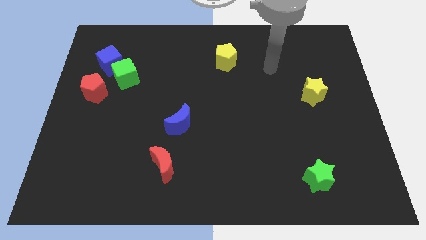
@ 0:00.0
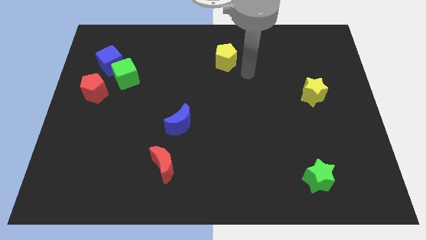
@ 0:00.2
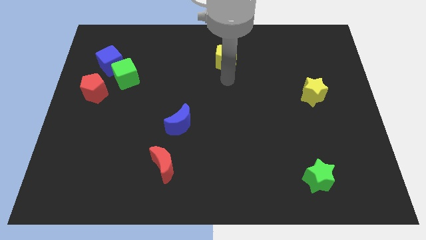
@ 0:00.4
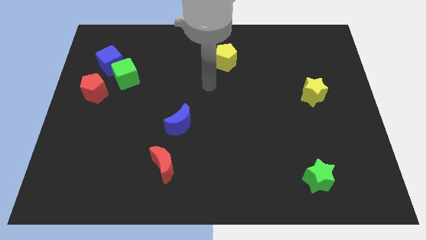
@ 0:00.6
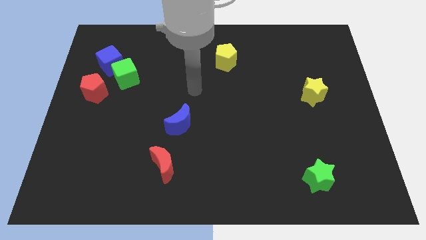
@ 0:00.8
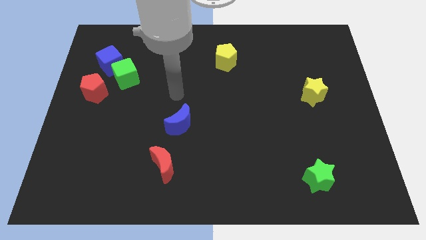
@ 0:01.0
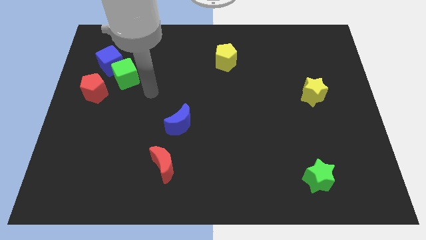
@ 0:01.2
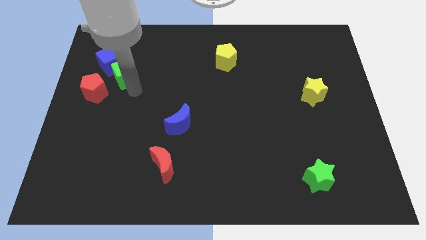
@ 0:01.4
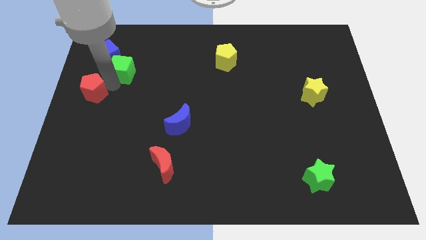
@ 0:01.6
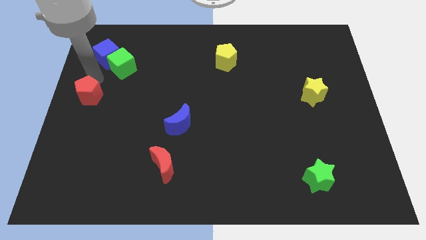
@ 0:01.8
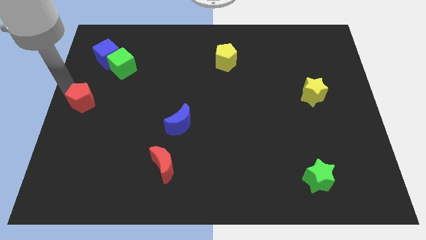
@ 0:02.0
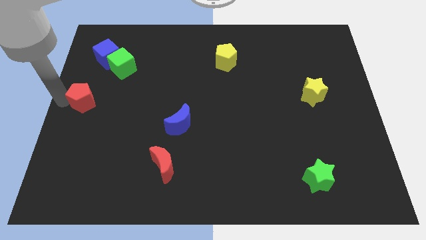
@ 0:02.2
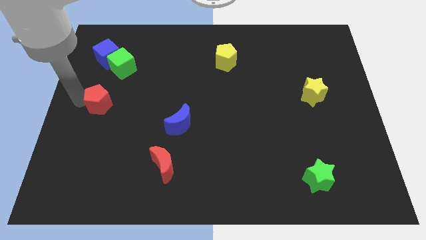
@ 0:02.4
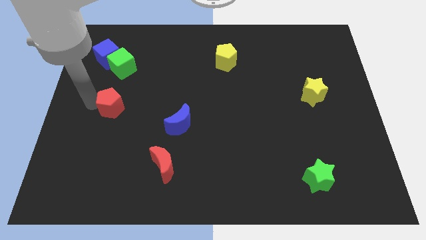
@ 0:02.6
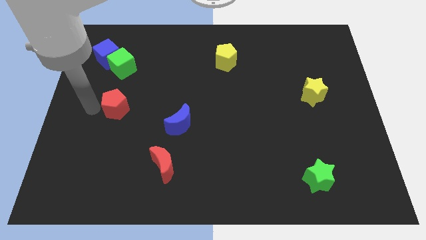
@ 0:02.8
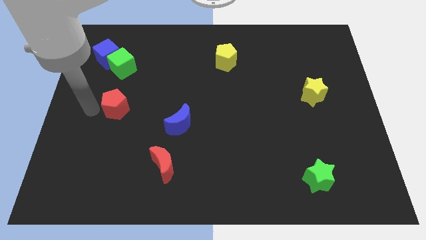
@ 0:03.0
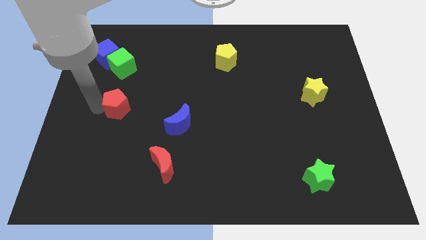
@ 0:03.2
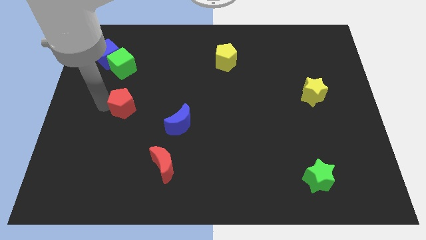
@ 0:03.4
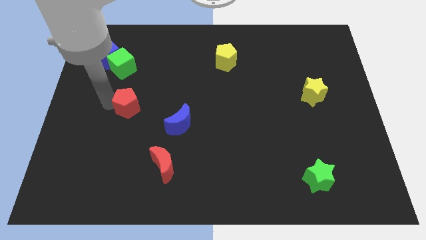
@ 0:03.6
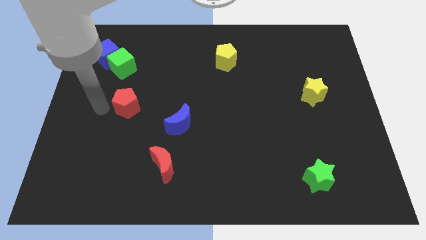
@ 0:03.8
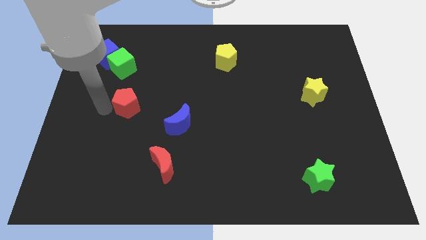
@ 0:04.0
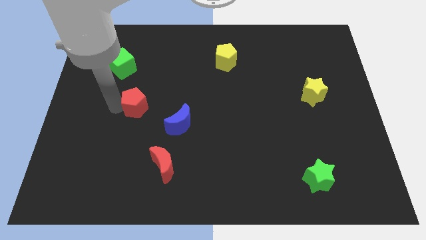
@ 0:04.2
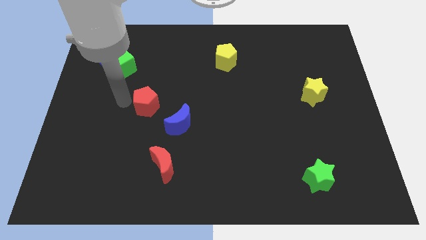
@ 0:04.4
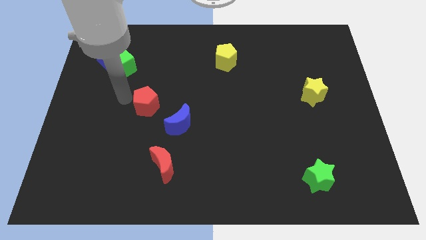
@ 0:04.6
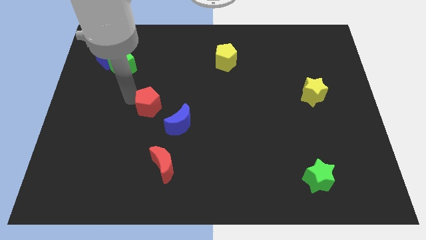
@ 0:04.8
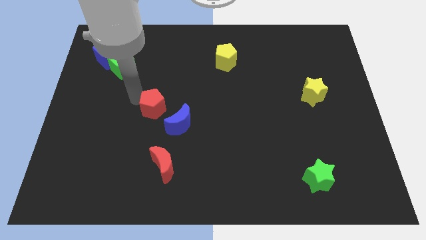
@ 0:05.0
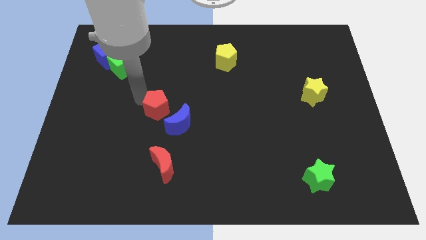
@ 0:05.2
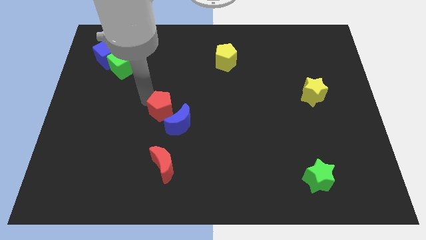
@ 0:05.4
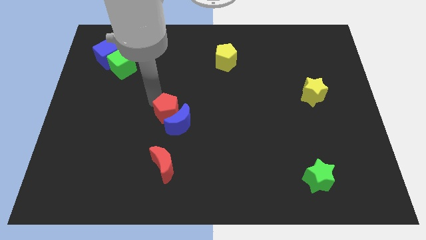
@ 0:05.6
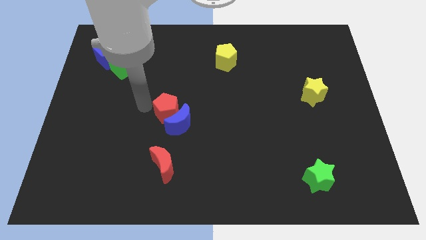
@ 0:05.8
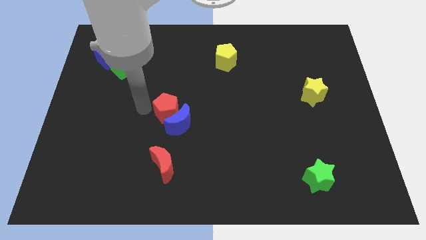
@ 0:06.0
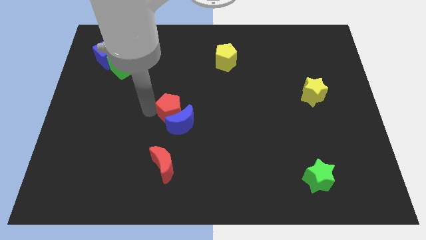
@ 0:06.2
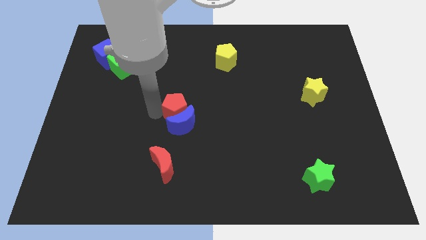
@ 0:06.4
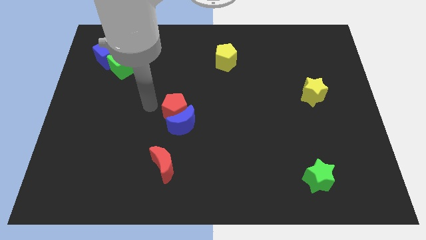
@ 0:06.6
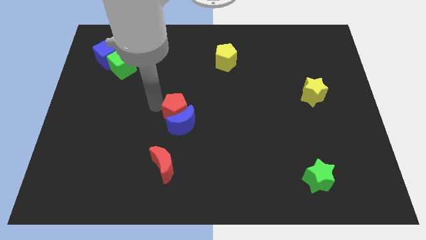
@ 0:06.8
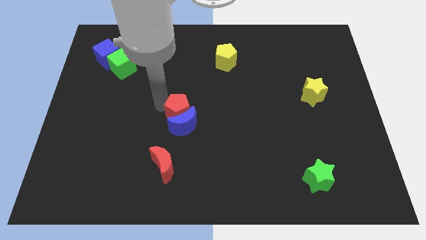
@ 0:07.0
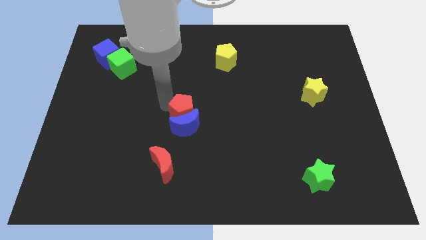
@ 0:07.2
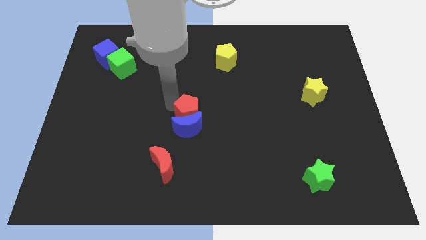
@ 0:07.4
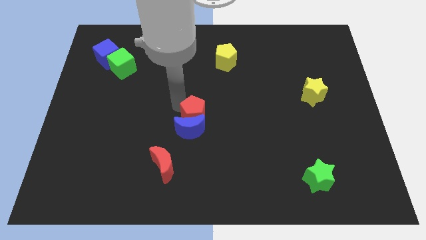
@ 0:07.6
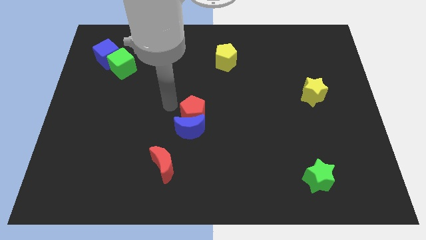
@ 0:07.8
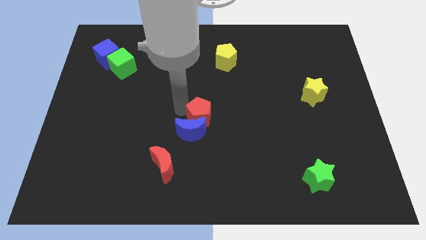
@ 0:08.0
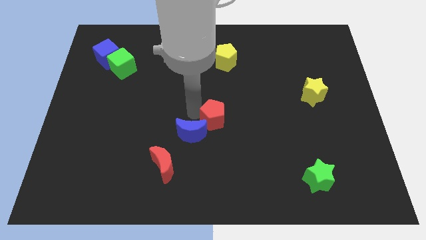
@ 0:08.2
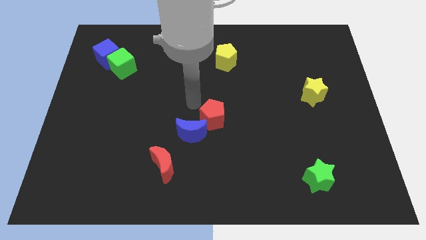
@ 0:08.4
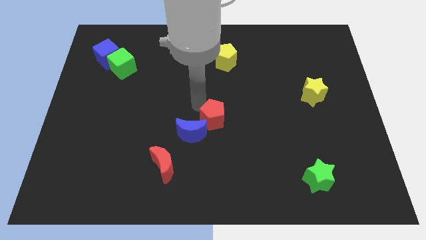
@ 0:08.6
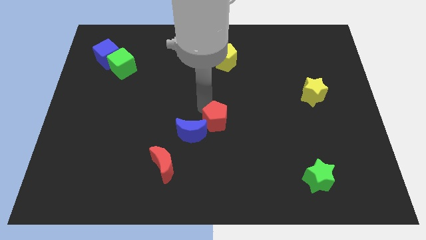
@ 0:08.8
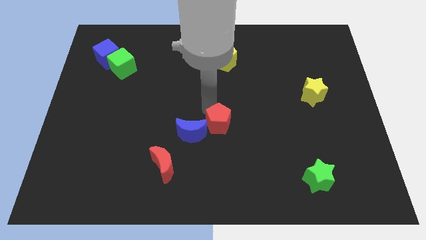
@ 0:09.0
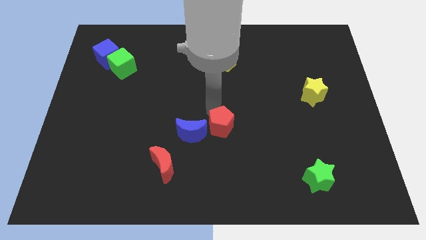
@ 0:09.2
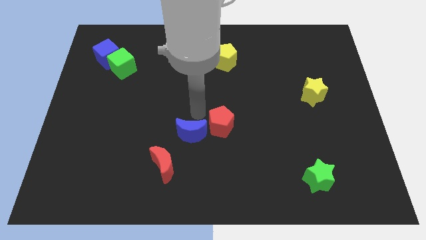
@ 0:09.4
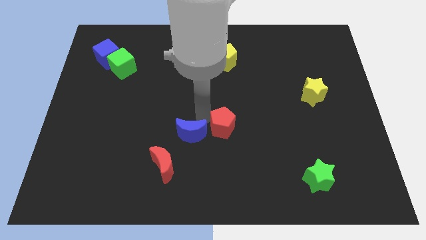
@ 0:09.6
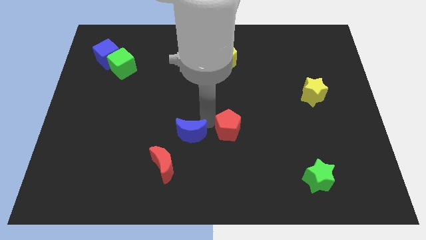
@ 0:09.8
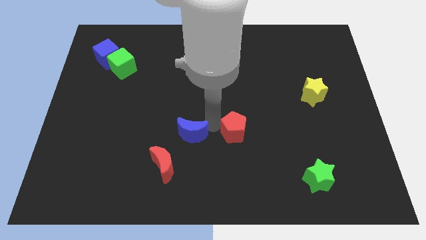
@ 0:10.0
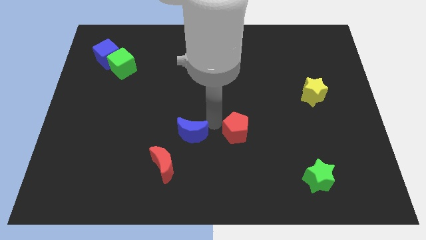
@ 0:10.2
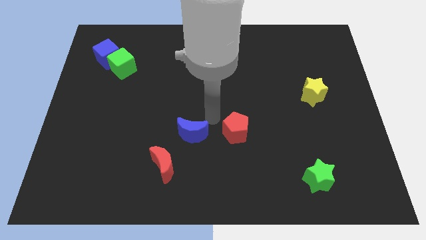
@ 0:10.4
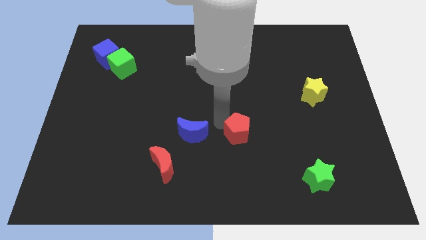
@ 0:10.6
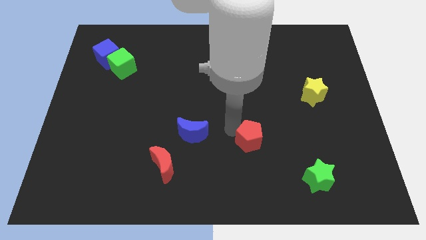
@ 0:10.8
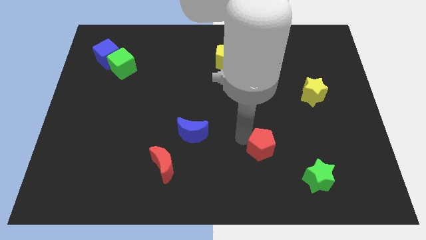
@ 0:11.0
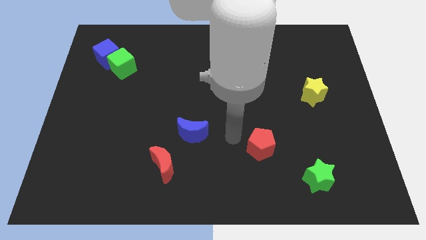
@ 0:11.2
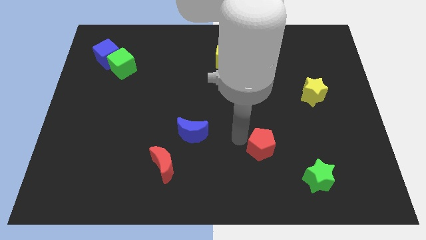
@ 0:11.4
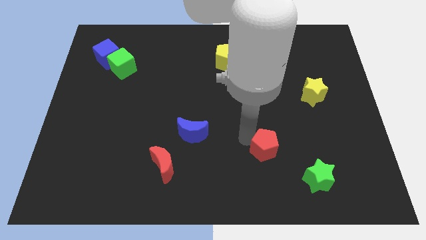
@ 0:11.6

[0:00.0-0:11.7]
push the red pentagon to the top left of the green star

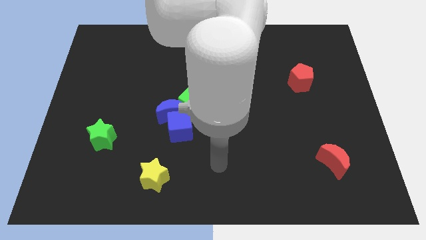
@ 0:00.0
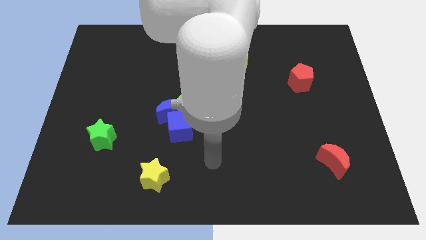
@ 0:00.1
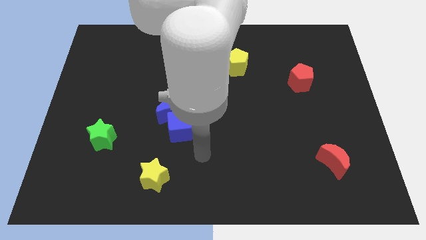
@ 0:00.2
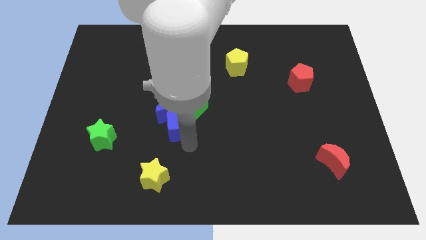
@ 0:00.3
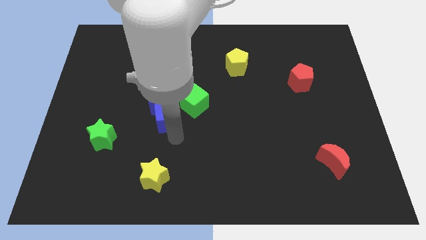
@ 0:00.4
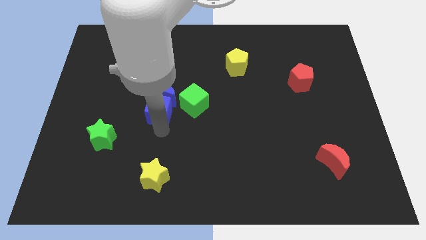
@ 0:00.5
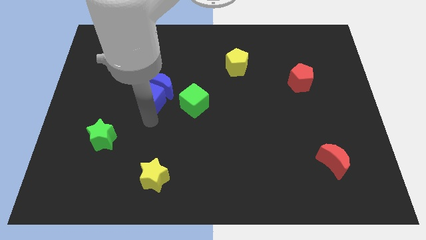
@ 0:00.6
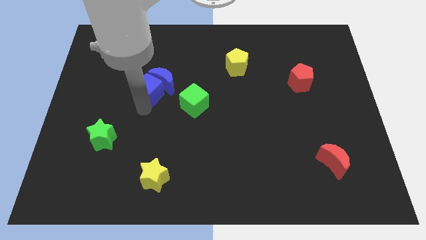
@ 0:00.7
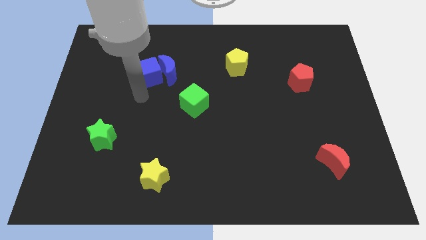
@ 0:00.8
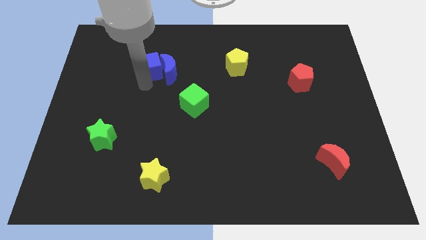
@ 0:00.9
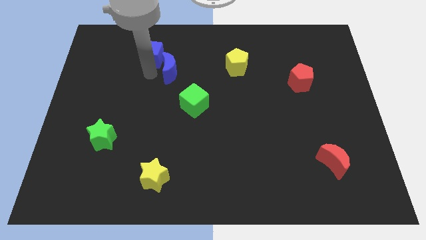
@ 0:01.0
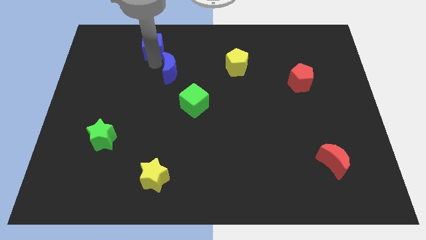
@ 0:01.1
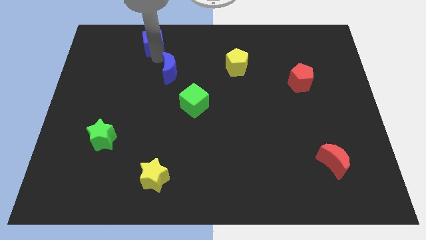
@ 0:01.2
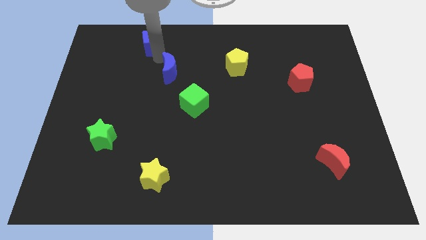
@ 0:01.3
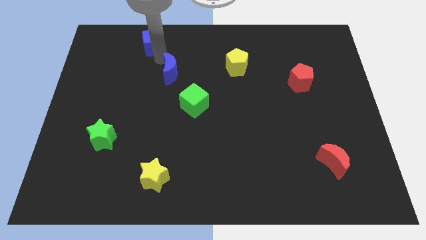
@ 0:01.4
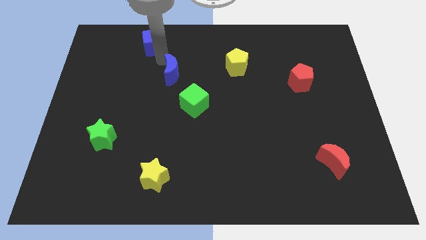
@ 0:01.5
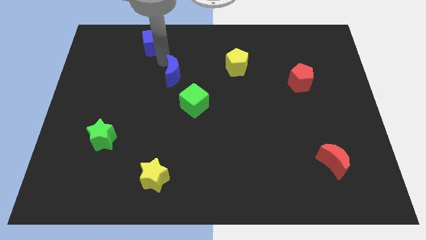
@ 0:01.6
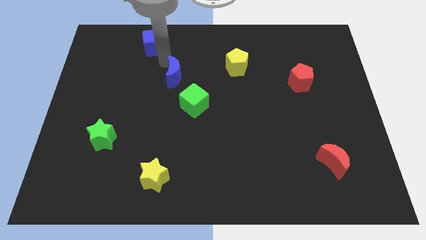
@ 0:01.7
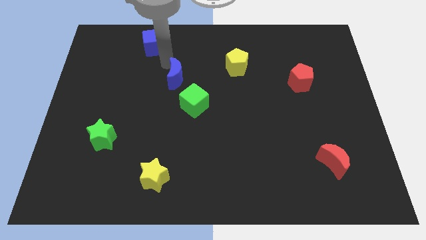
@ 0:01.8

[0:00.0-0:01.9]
put the blue moon above the green cube
